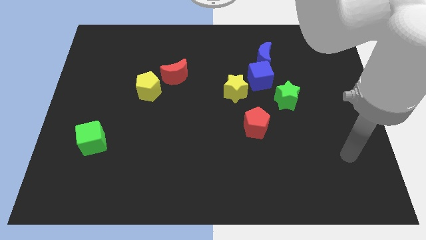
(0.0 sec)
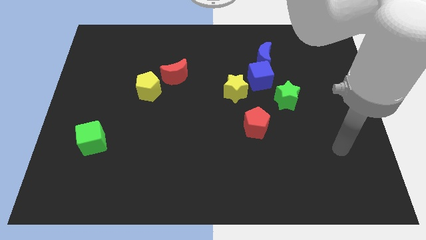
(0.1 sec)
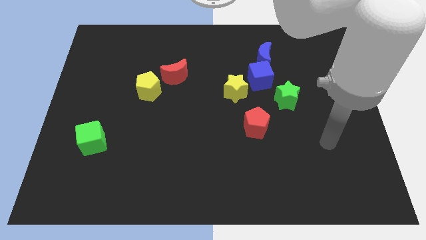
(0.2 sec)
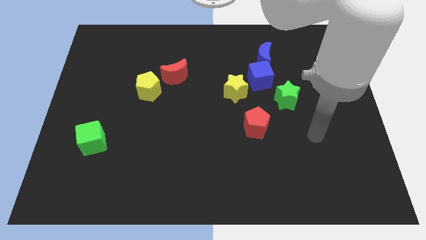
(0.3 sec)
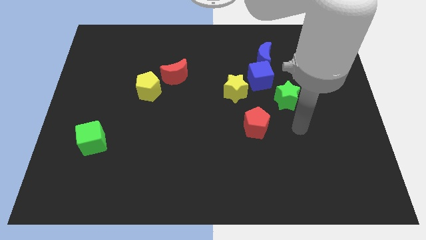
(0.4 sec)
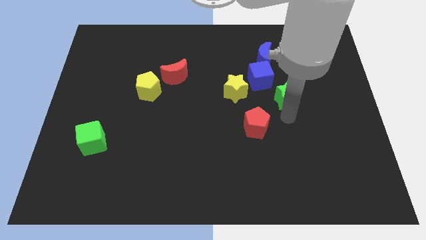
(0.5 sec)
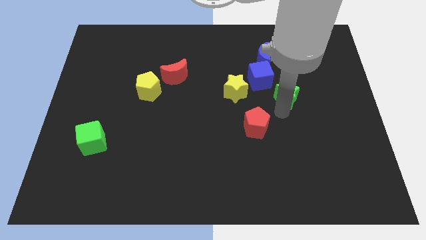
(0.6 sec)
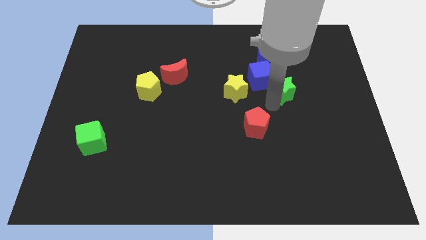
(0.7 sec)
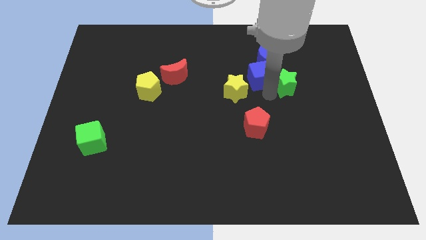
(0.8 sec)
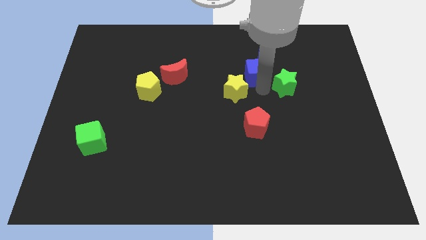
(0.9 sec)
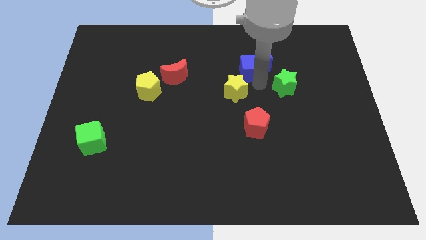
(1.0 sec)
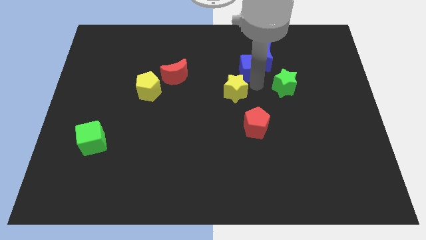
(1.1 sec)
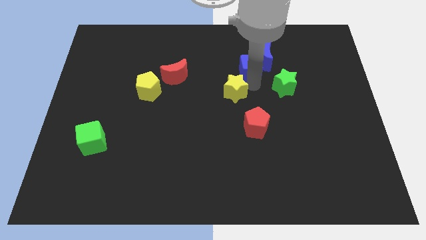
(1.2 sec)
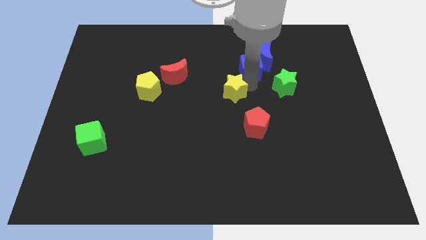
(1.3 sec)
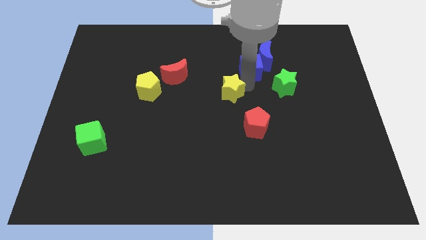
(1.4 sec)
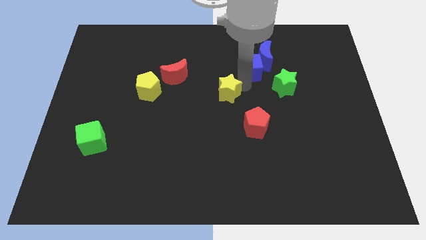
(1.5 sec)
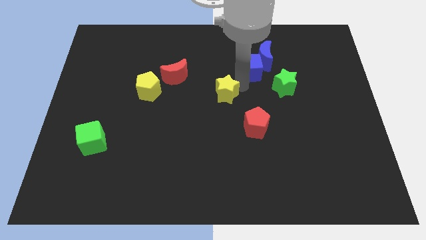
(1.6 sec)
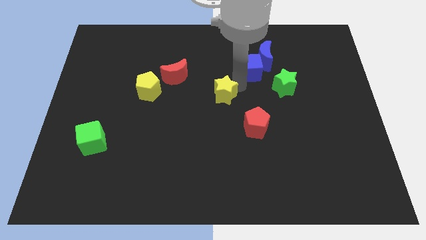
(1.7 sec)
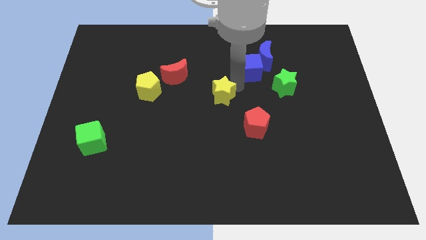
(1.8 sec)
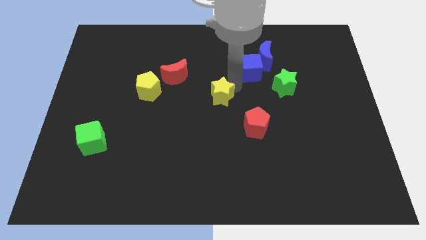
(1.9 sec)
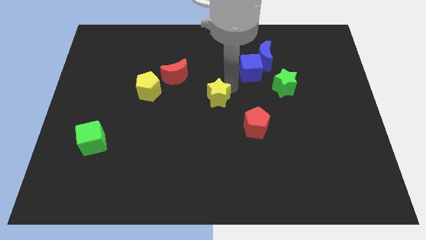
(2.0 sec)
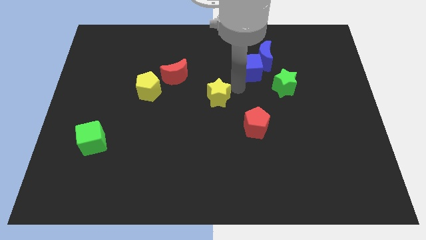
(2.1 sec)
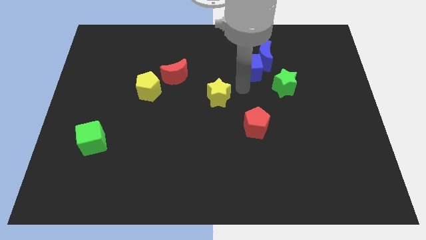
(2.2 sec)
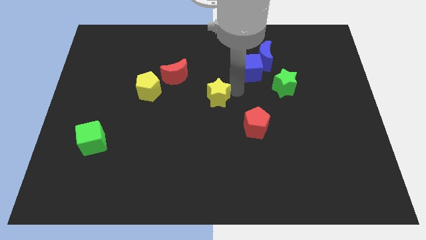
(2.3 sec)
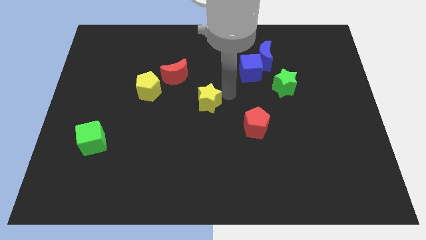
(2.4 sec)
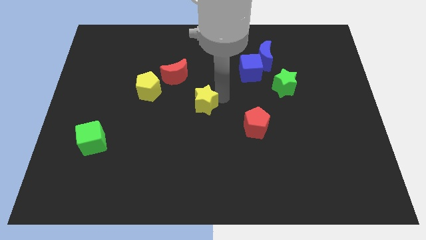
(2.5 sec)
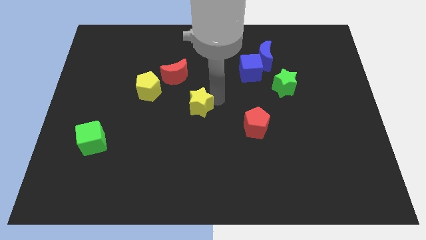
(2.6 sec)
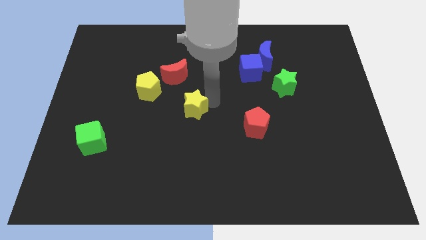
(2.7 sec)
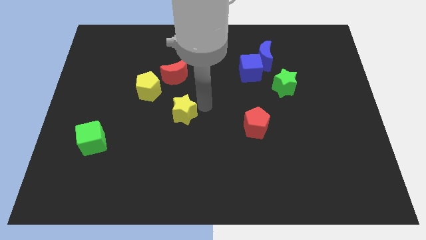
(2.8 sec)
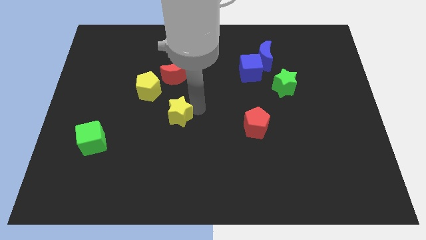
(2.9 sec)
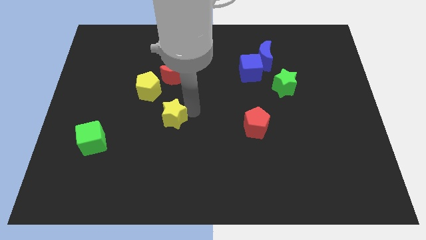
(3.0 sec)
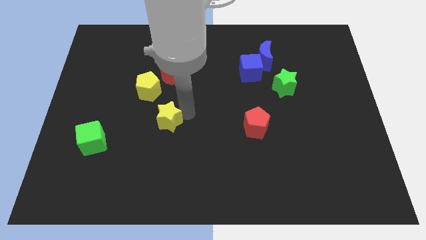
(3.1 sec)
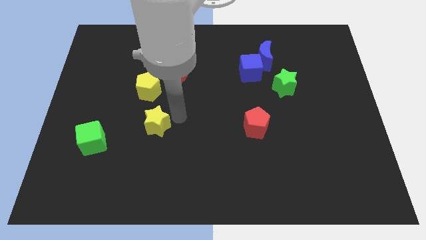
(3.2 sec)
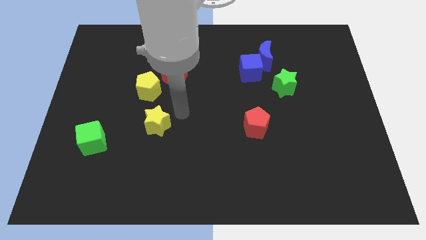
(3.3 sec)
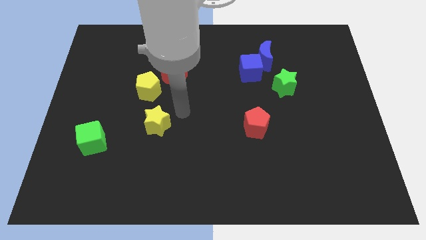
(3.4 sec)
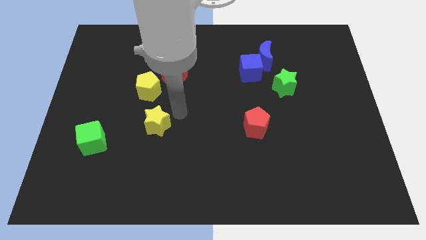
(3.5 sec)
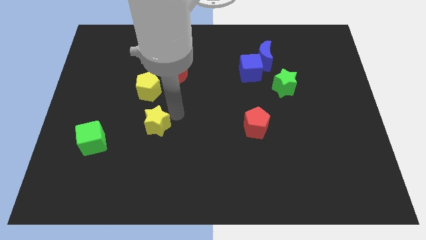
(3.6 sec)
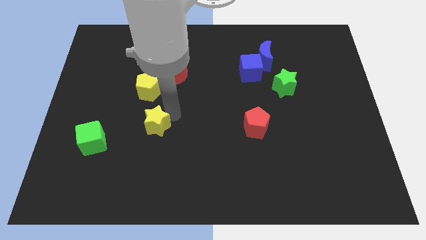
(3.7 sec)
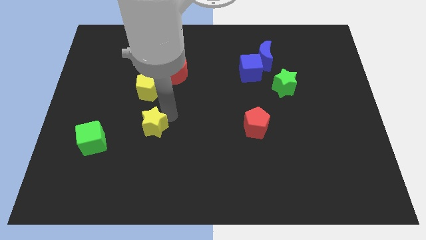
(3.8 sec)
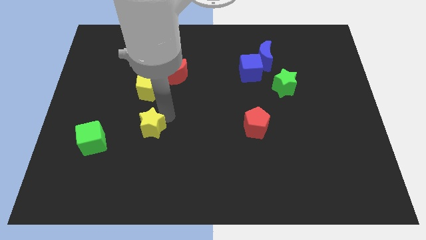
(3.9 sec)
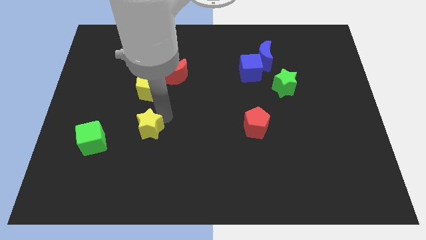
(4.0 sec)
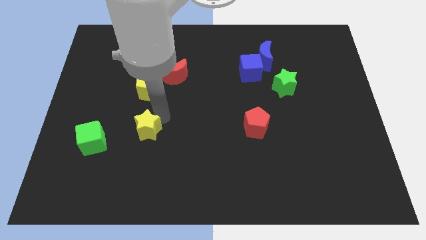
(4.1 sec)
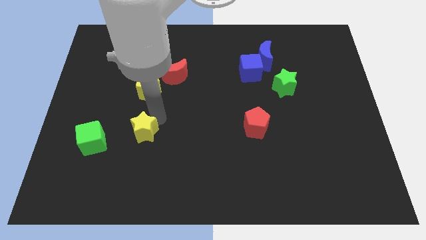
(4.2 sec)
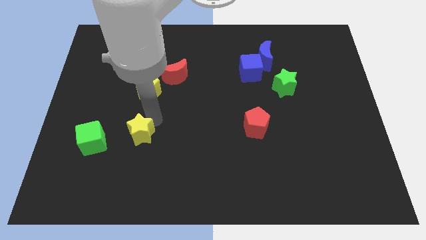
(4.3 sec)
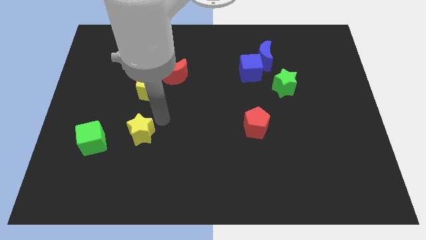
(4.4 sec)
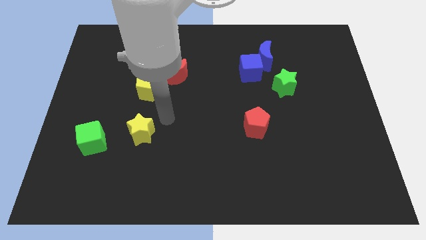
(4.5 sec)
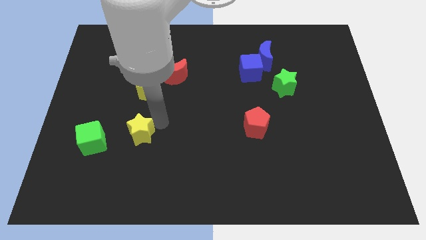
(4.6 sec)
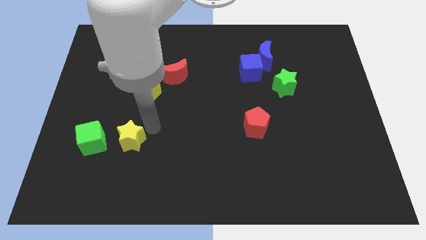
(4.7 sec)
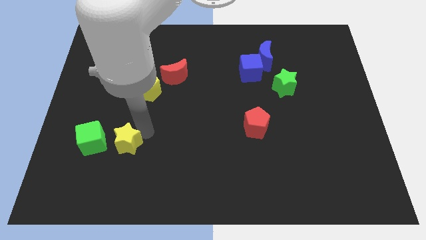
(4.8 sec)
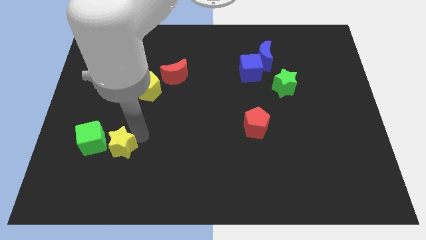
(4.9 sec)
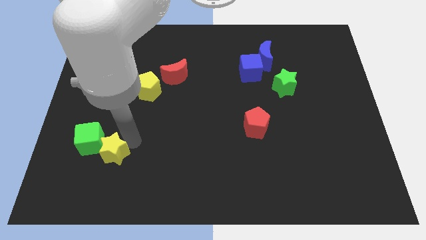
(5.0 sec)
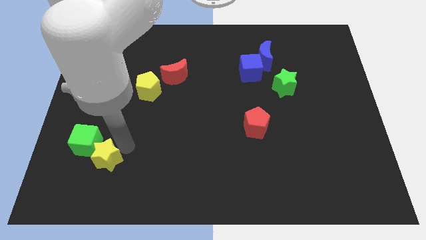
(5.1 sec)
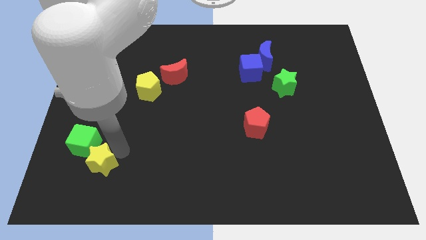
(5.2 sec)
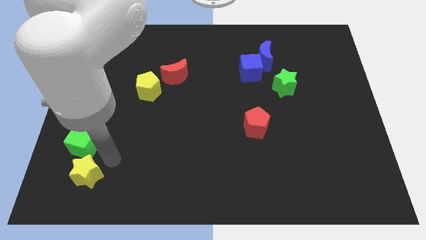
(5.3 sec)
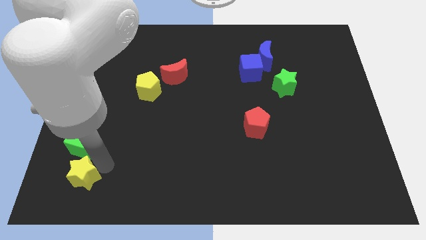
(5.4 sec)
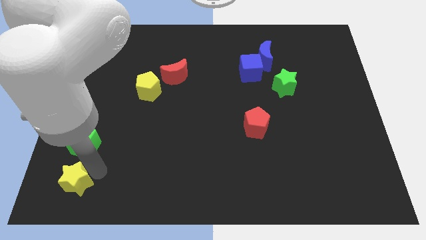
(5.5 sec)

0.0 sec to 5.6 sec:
slide the yellow star to the bottom left of the board
